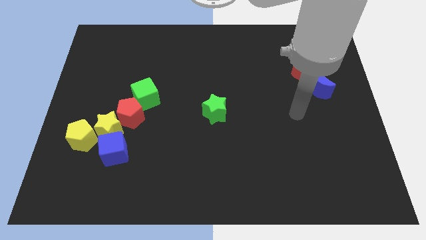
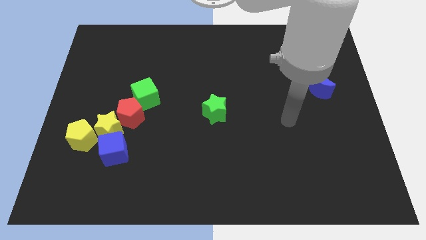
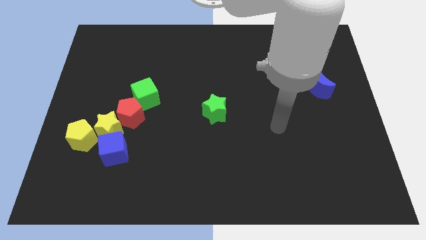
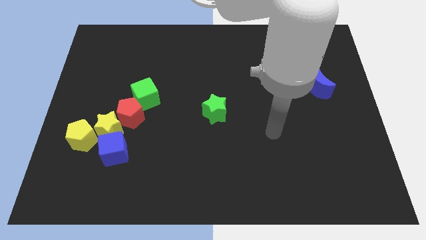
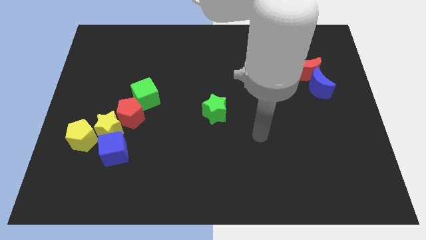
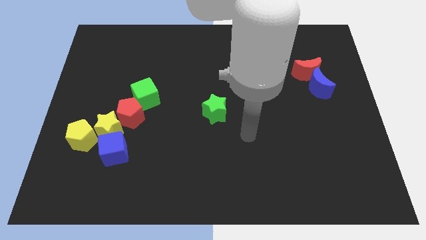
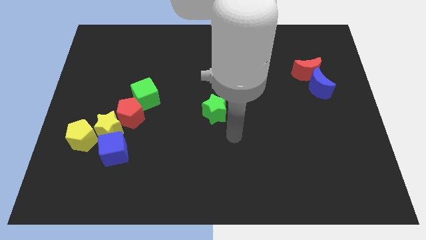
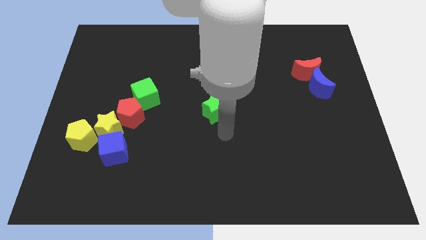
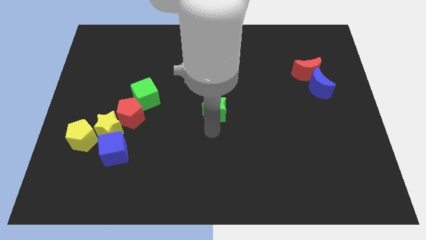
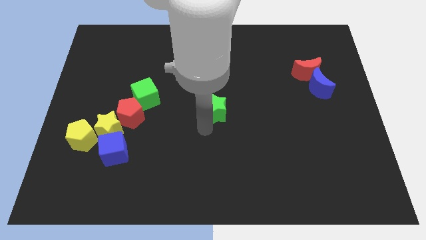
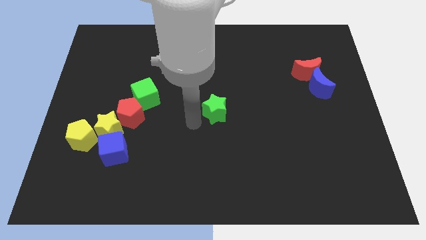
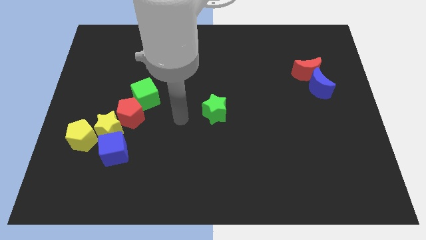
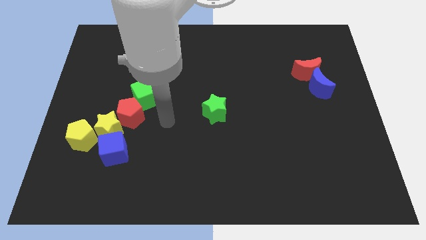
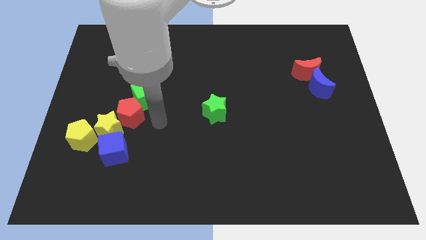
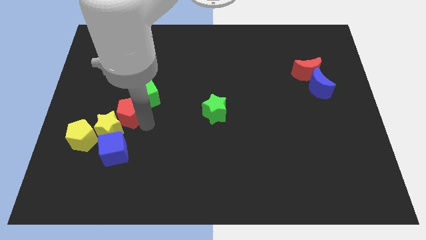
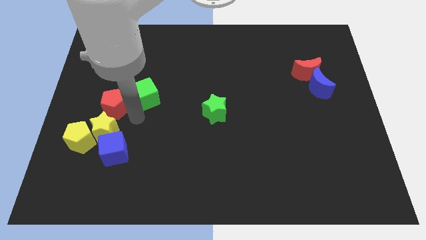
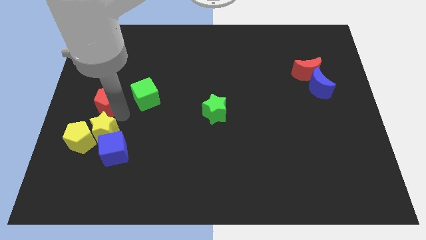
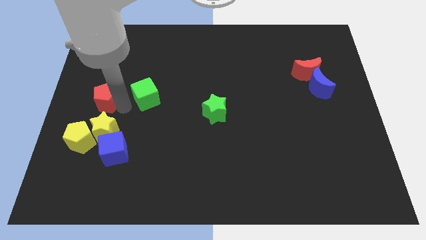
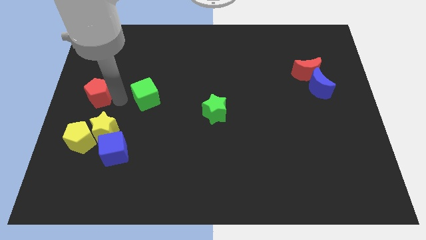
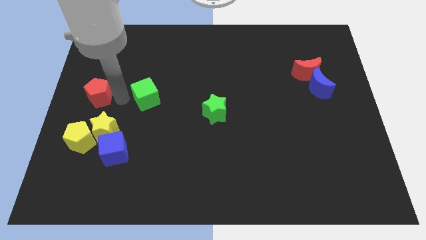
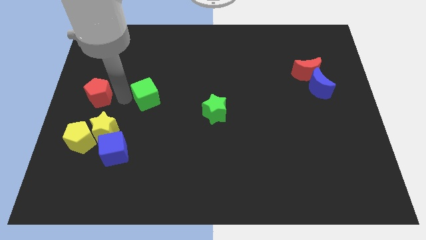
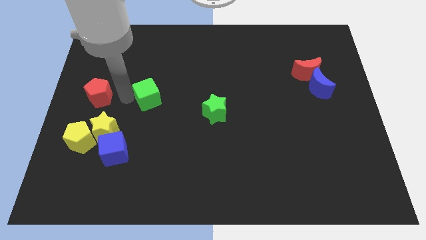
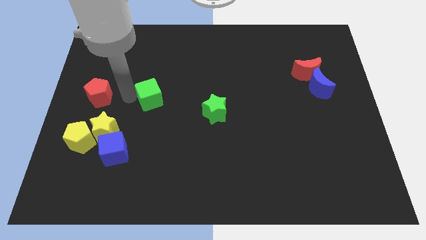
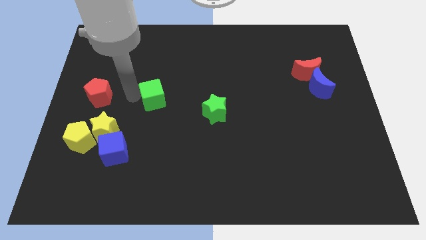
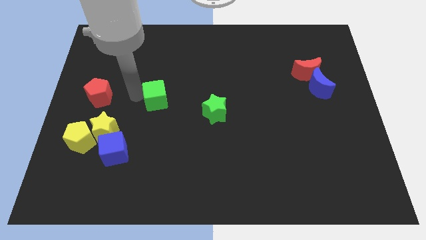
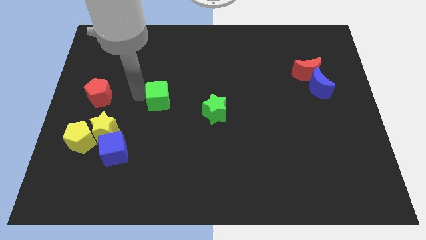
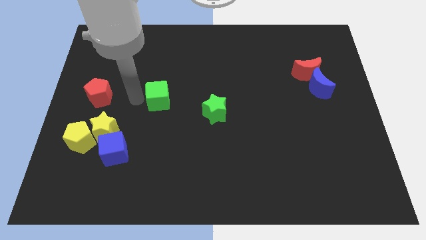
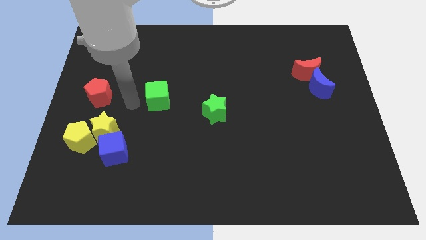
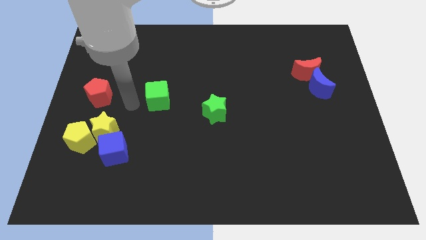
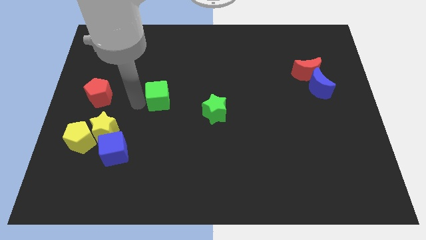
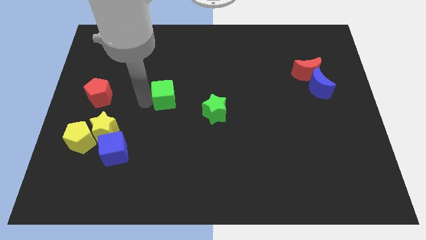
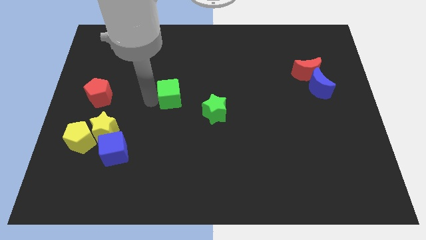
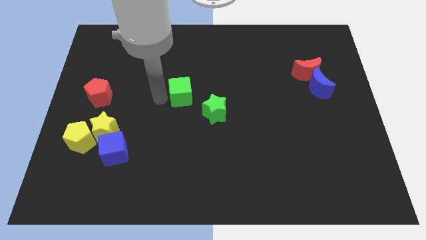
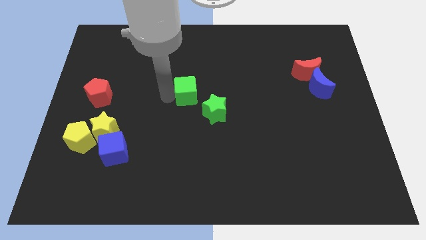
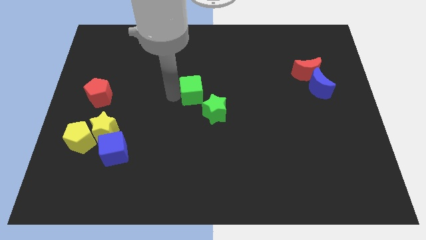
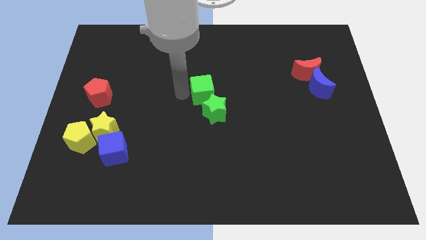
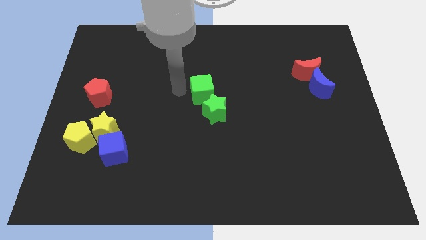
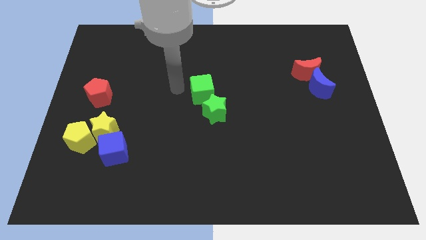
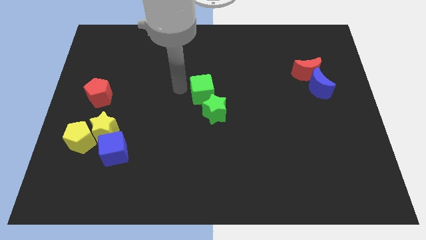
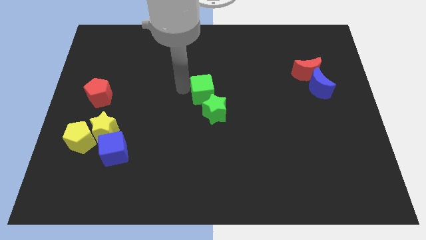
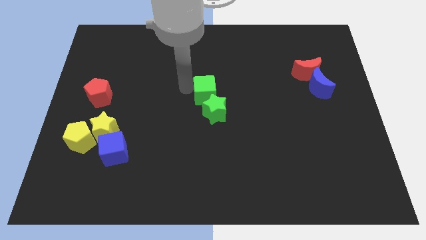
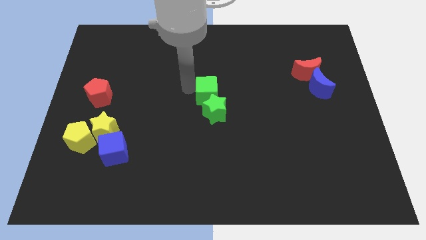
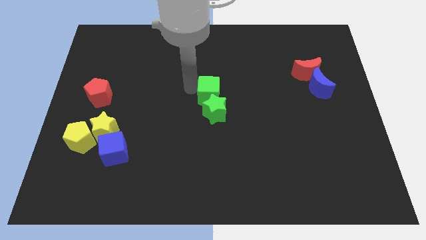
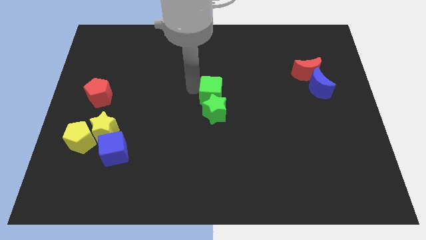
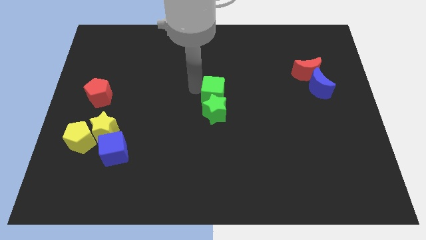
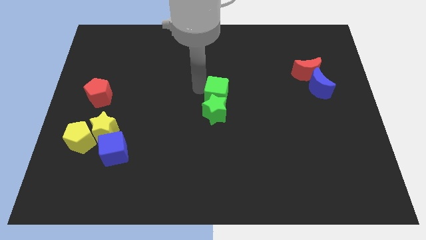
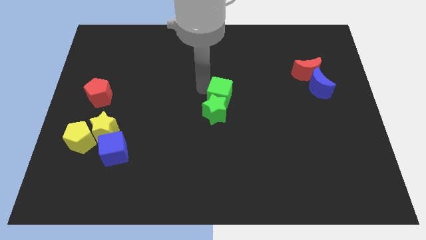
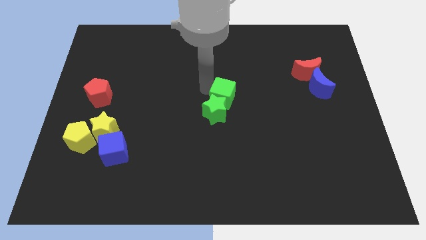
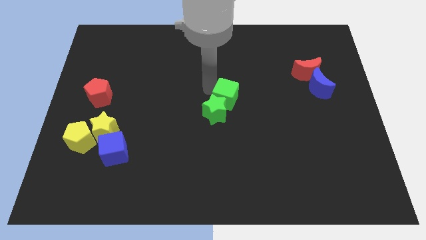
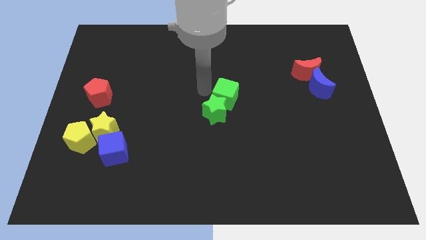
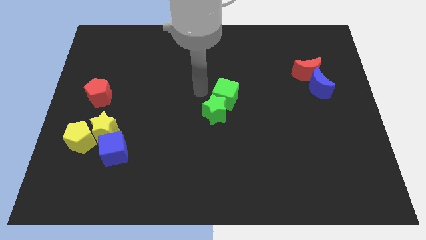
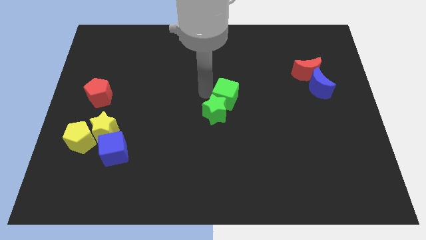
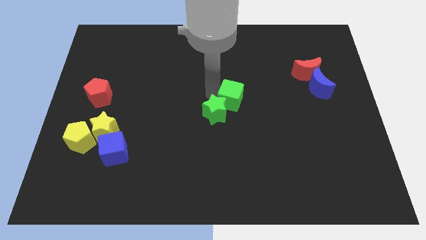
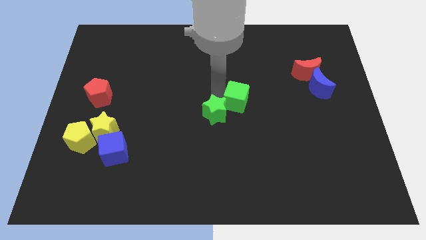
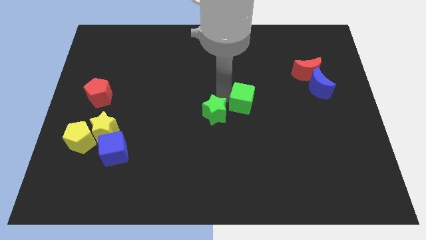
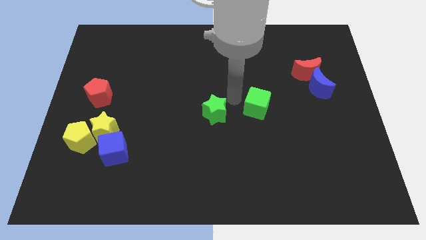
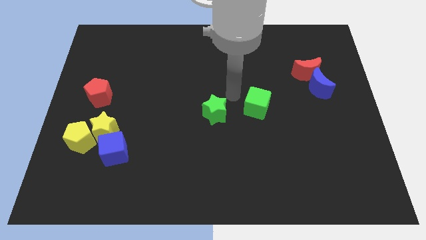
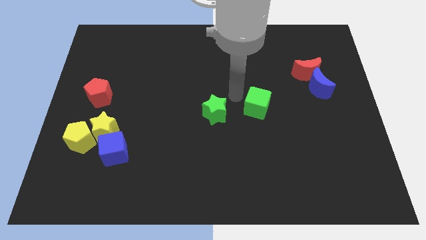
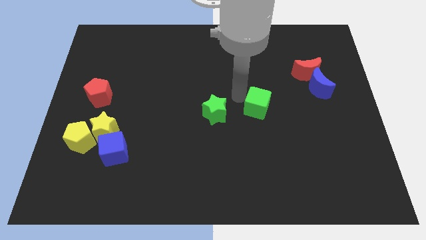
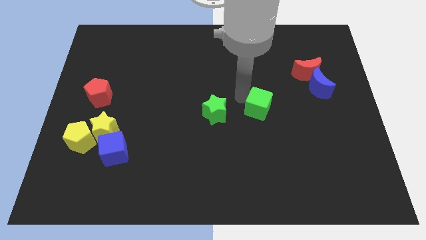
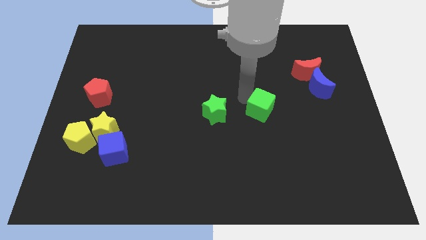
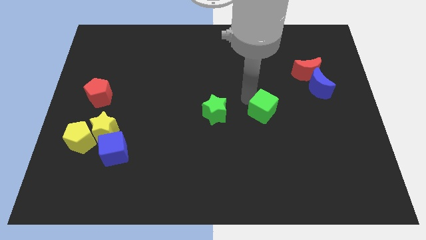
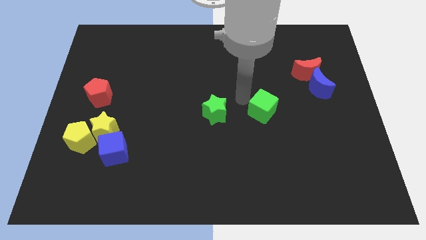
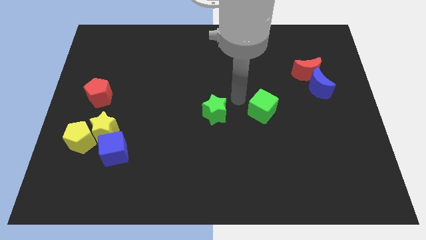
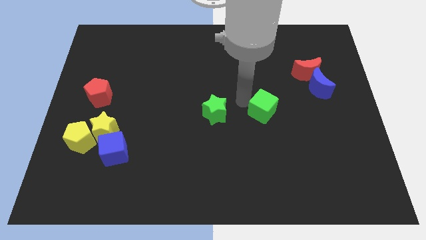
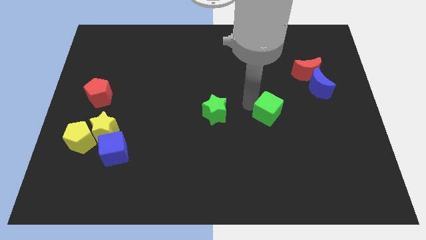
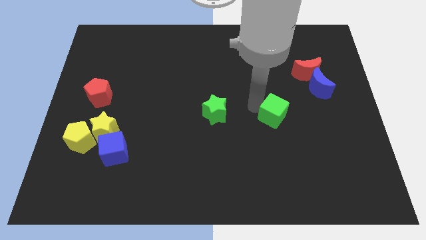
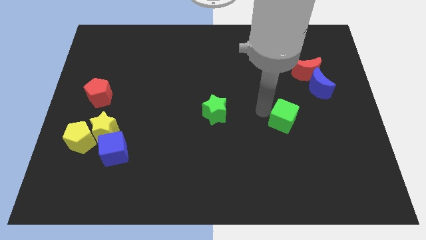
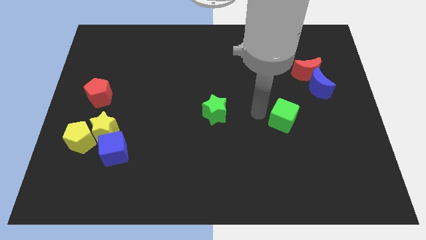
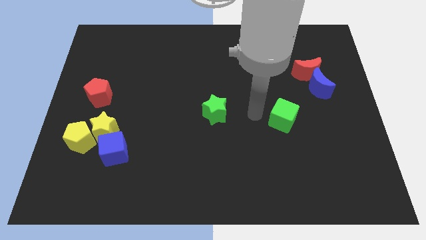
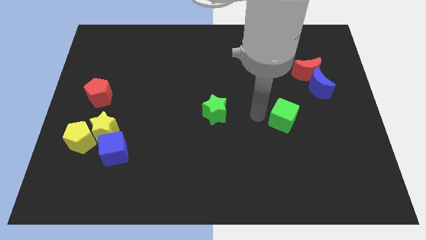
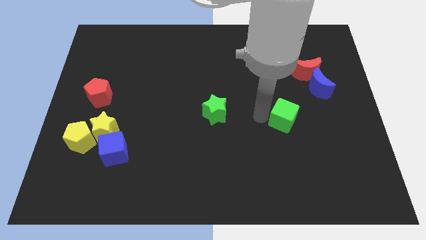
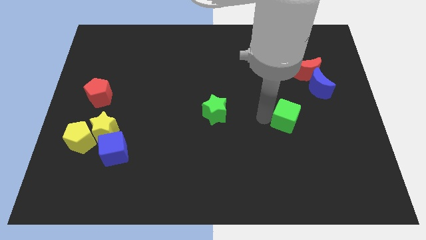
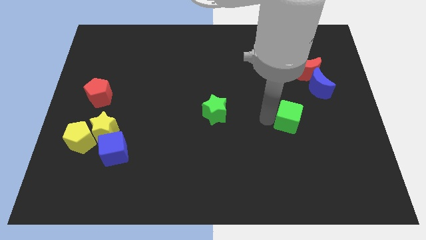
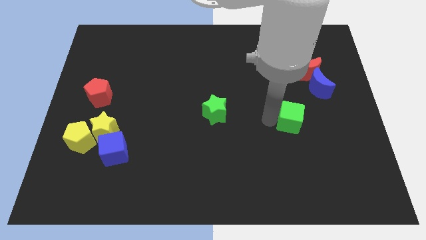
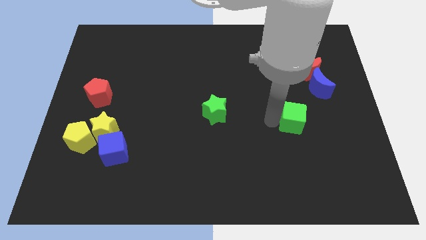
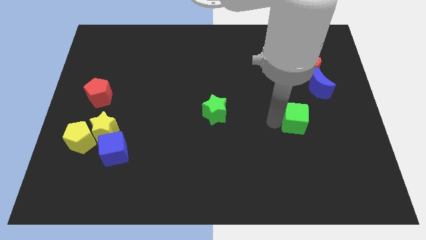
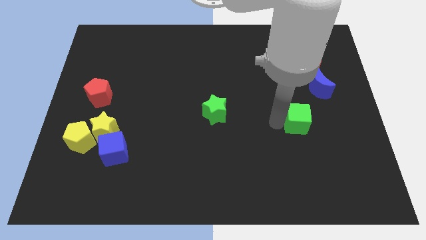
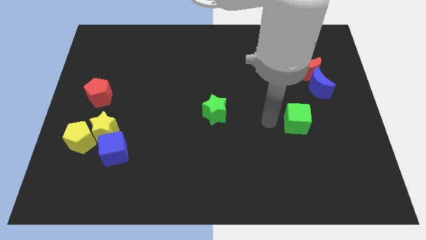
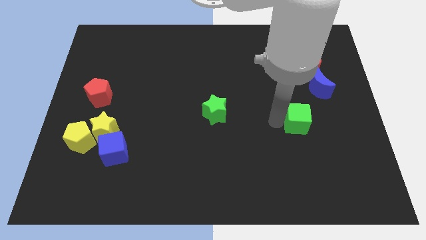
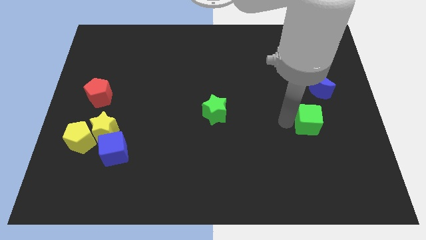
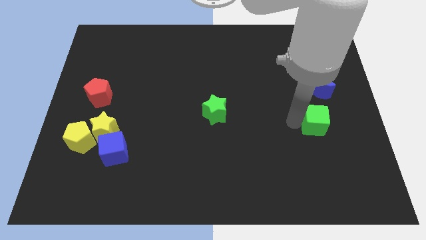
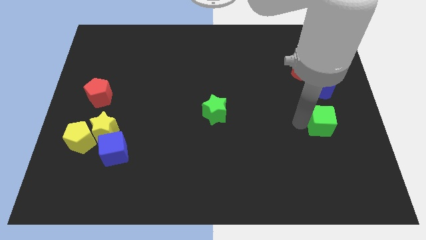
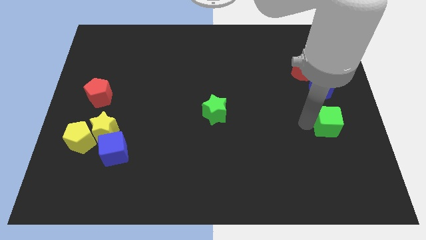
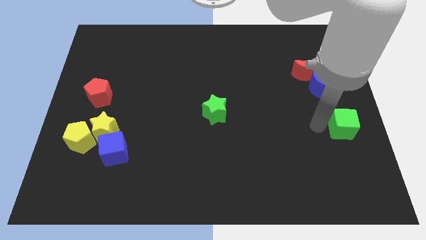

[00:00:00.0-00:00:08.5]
put the green cube to the right side of the board
